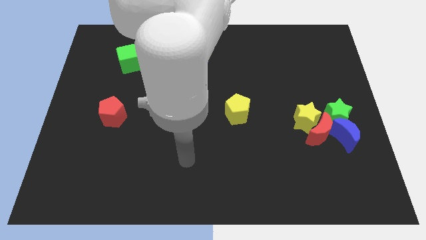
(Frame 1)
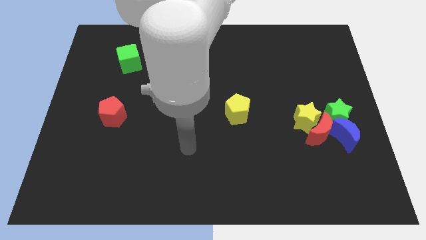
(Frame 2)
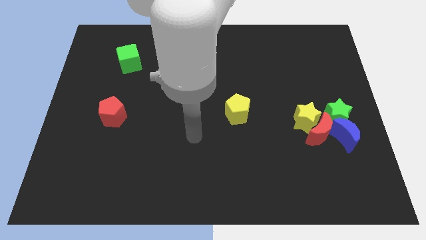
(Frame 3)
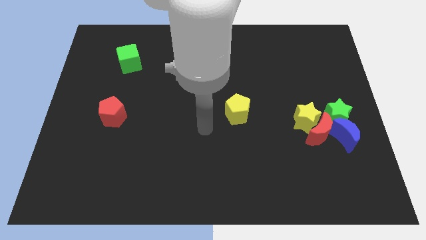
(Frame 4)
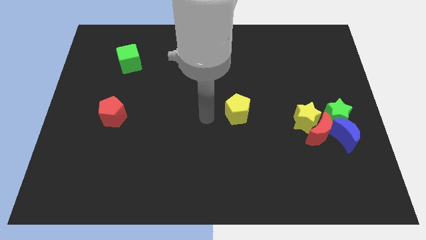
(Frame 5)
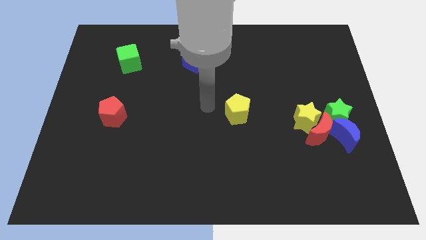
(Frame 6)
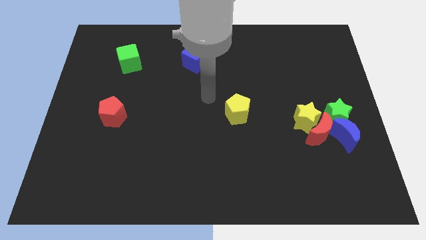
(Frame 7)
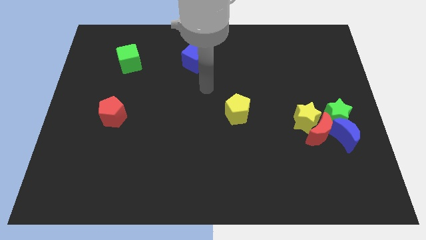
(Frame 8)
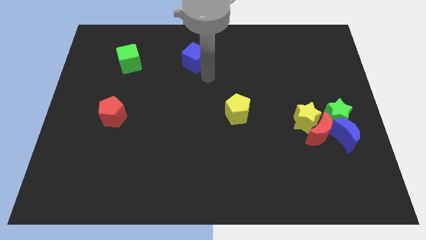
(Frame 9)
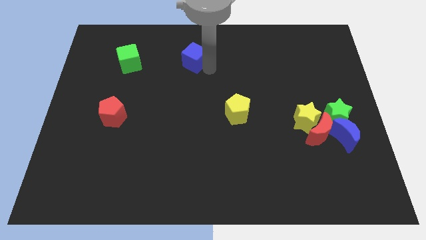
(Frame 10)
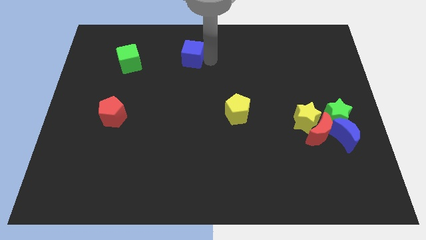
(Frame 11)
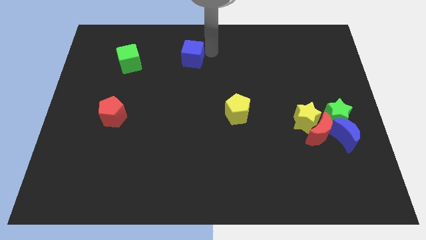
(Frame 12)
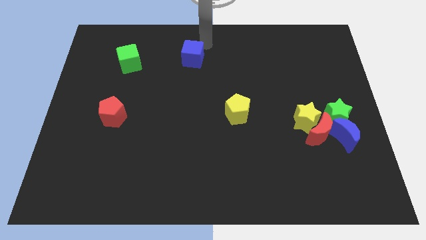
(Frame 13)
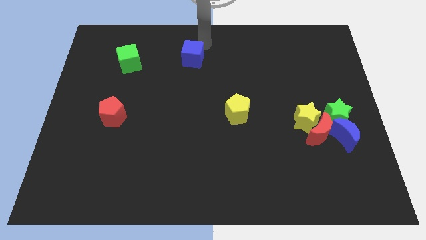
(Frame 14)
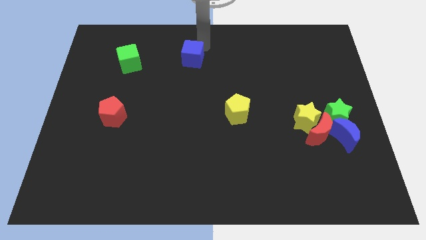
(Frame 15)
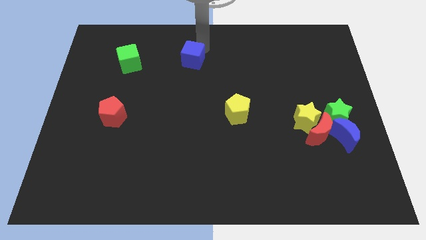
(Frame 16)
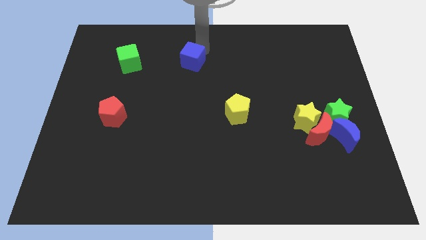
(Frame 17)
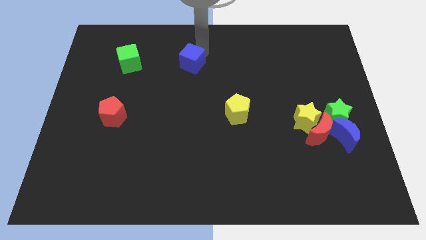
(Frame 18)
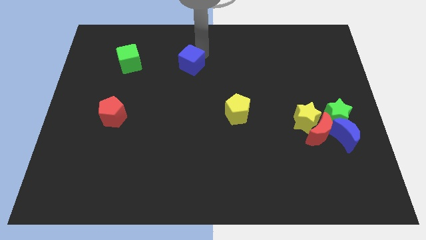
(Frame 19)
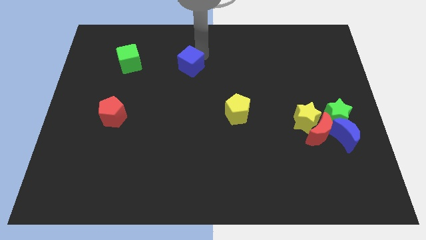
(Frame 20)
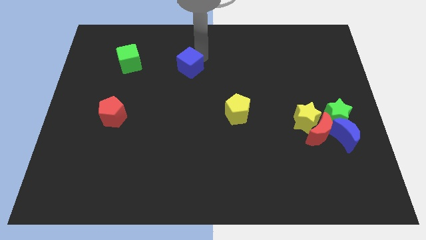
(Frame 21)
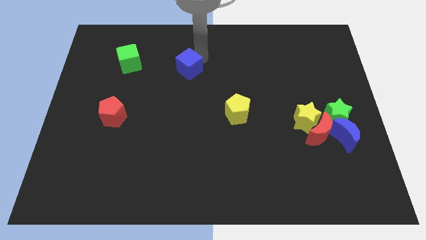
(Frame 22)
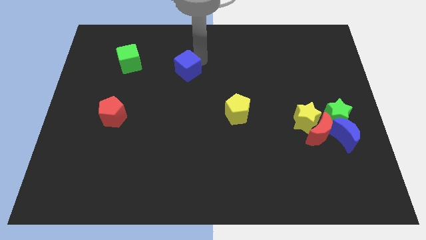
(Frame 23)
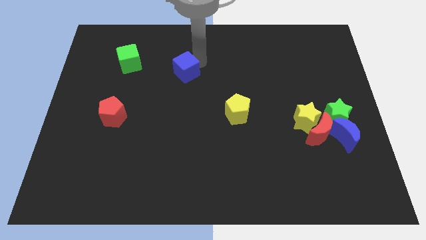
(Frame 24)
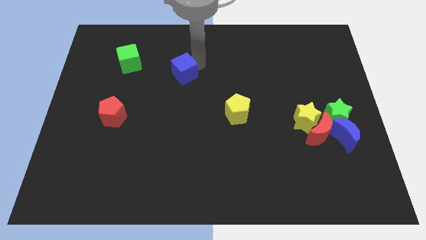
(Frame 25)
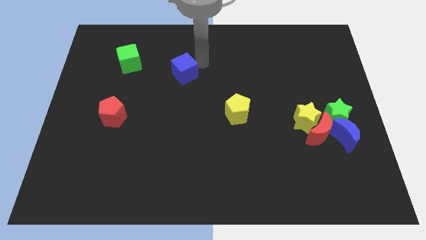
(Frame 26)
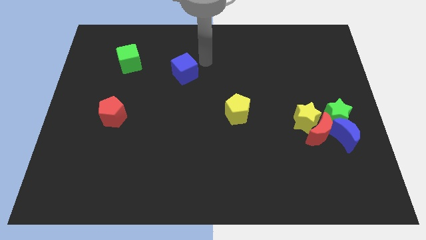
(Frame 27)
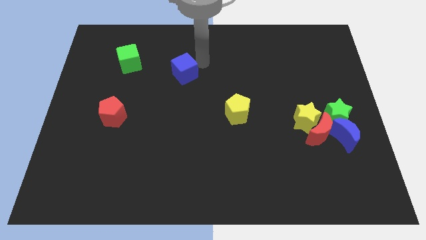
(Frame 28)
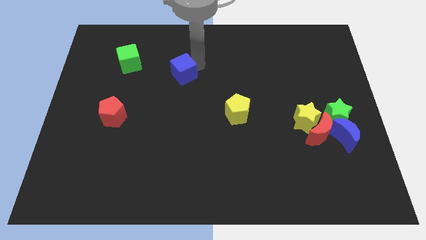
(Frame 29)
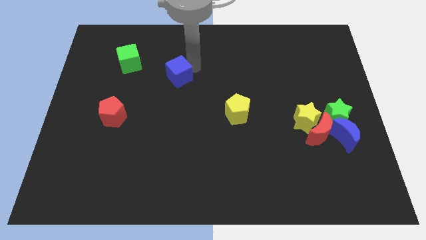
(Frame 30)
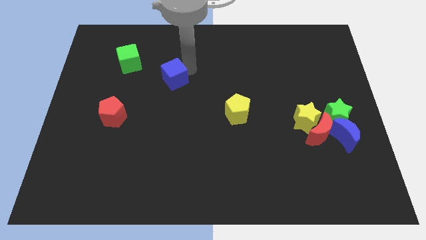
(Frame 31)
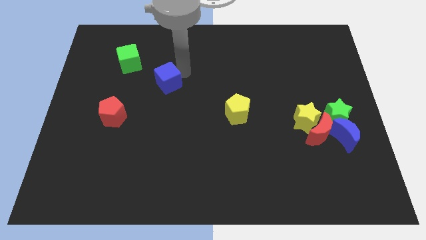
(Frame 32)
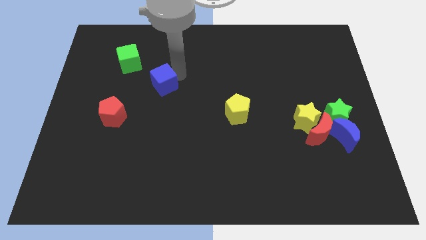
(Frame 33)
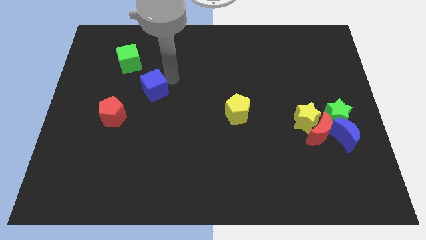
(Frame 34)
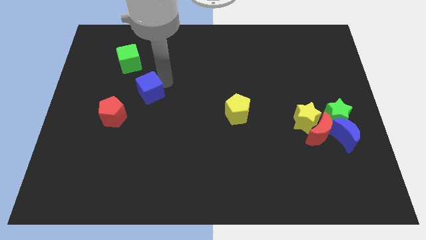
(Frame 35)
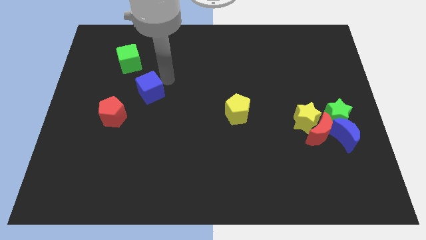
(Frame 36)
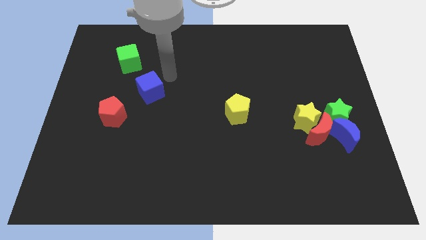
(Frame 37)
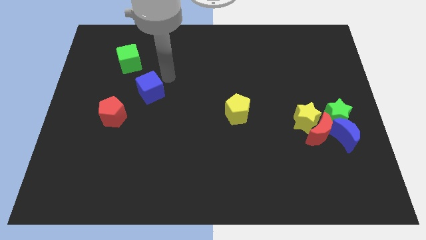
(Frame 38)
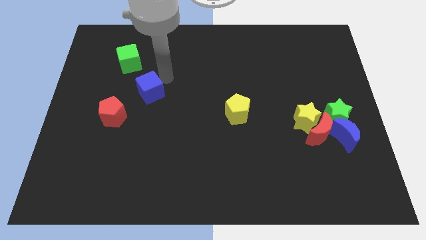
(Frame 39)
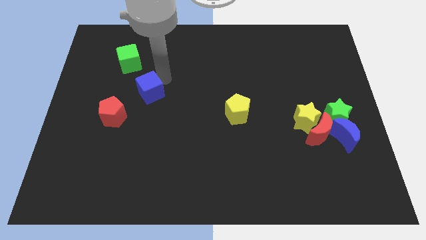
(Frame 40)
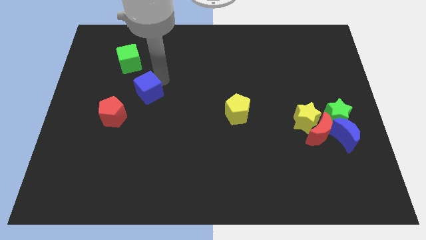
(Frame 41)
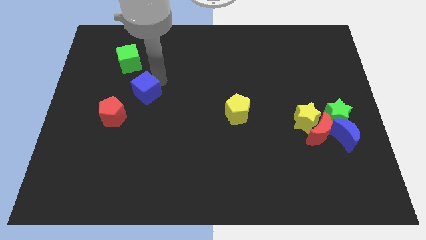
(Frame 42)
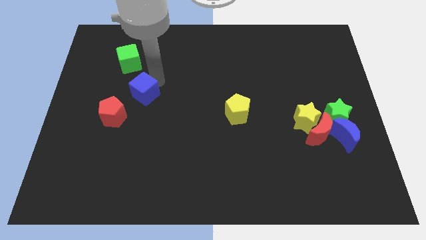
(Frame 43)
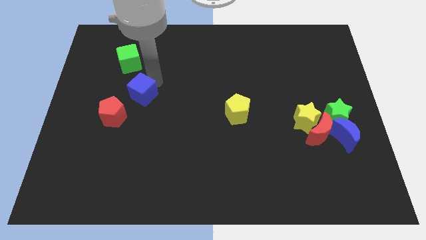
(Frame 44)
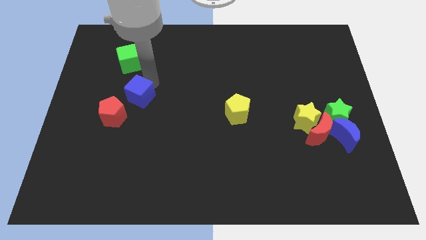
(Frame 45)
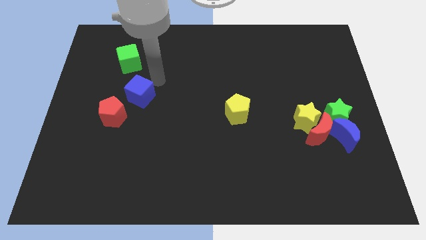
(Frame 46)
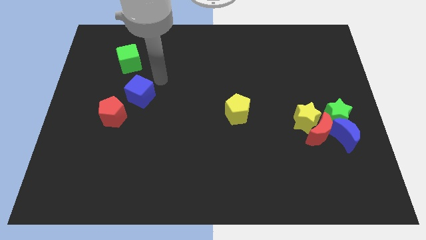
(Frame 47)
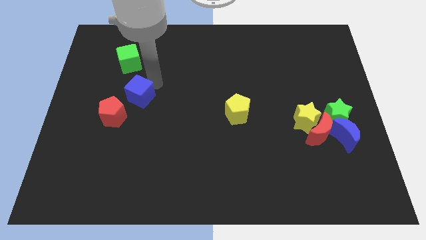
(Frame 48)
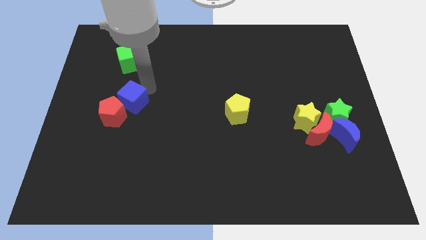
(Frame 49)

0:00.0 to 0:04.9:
put the blue cube towards the red pentagon

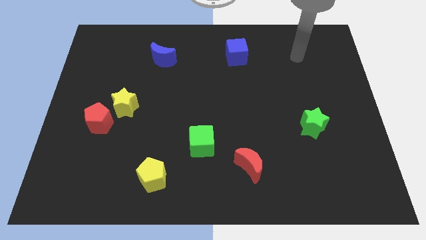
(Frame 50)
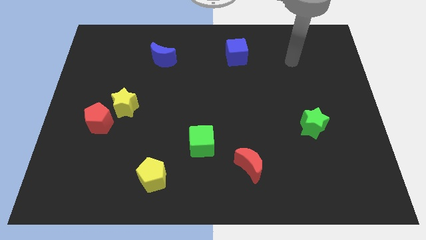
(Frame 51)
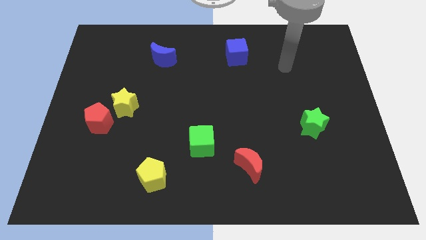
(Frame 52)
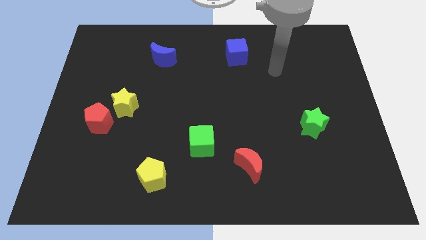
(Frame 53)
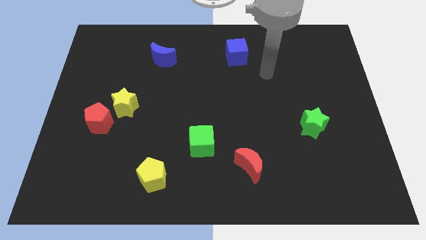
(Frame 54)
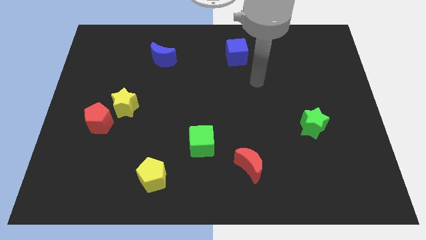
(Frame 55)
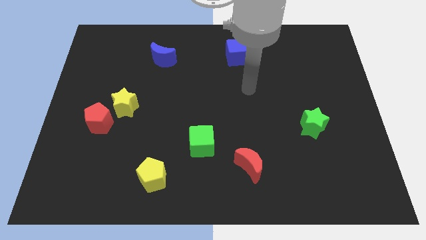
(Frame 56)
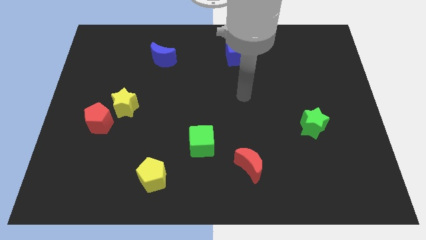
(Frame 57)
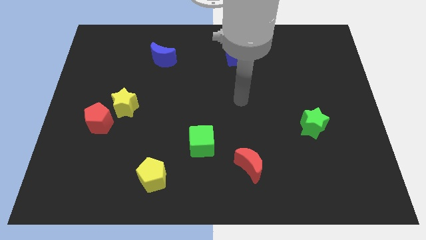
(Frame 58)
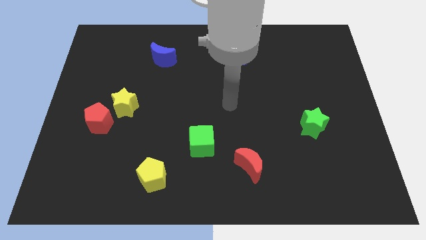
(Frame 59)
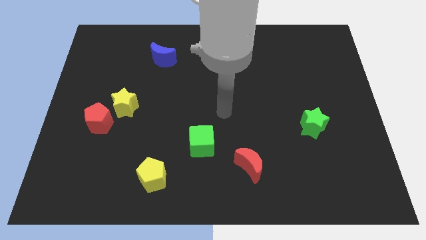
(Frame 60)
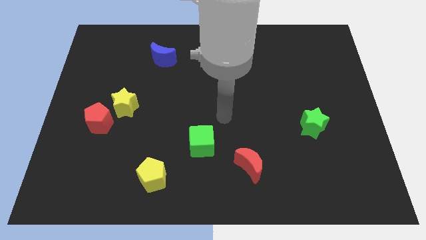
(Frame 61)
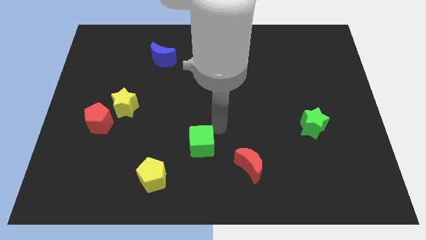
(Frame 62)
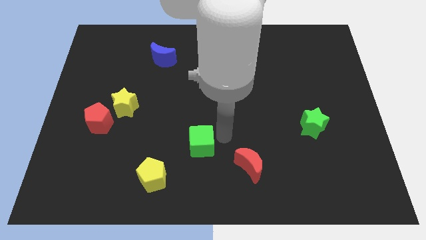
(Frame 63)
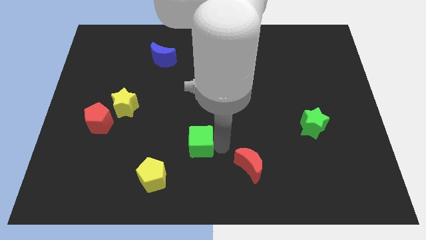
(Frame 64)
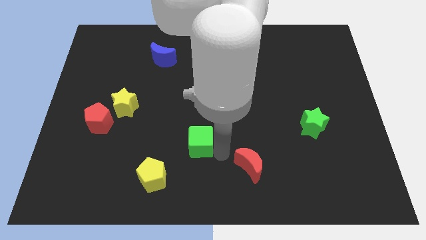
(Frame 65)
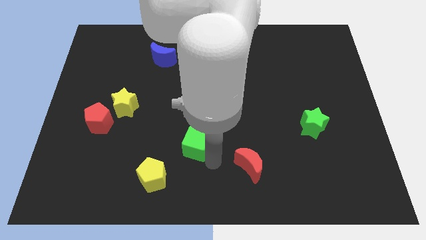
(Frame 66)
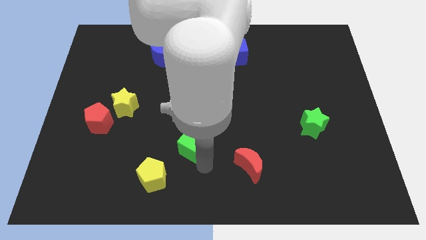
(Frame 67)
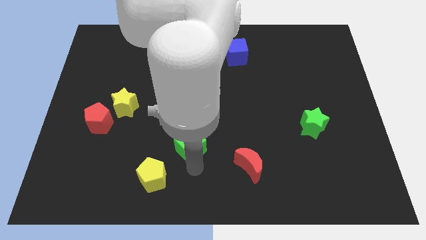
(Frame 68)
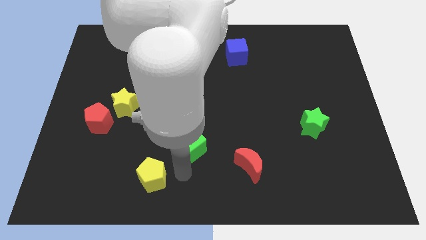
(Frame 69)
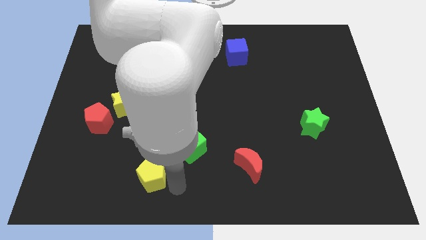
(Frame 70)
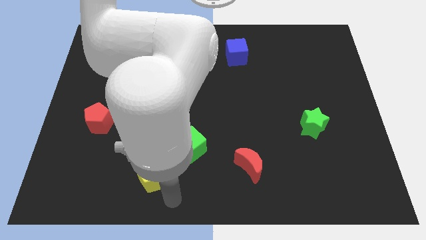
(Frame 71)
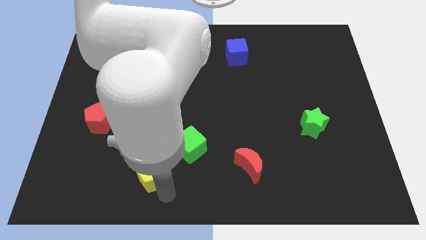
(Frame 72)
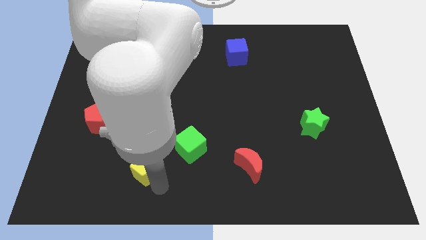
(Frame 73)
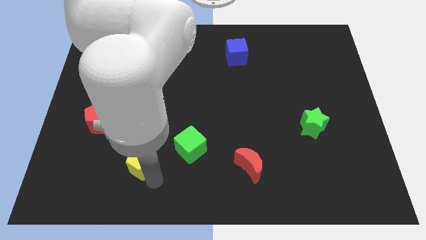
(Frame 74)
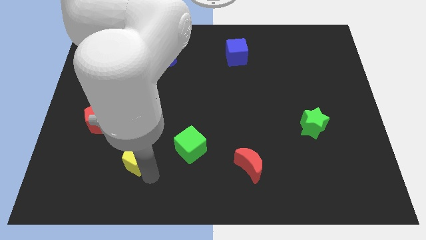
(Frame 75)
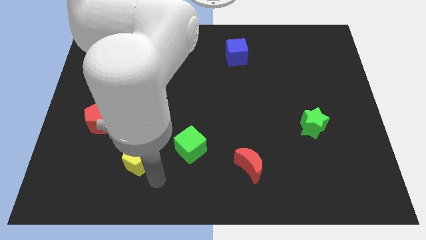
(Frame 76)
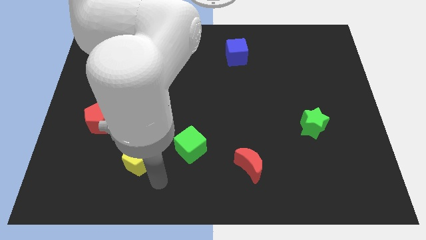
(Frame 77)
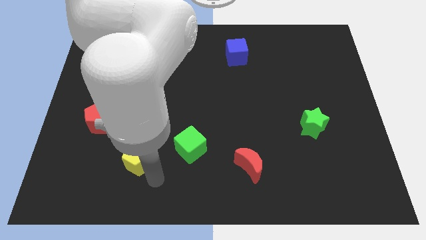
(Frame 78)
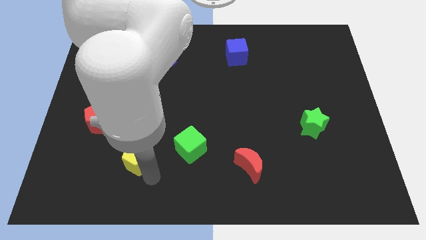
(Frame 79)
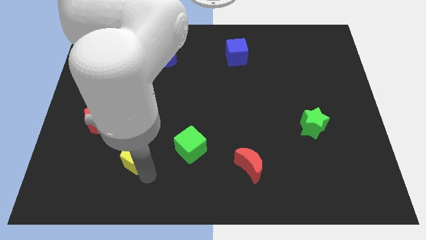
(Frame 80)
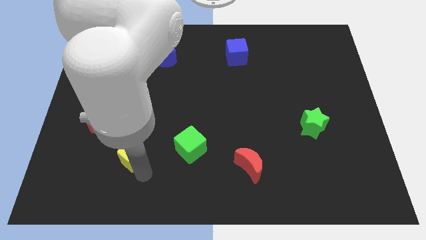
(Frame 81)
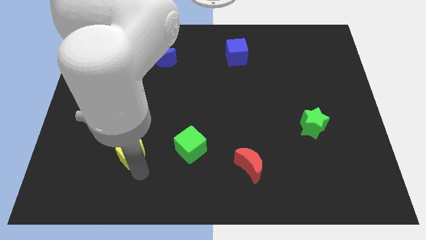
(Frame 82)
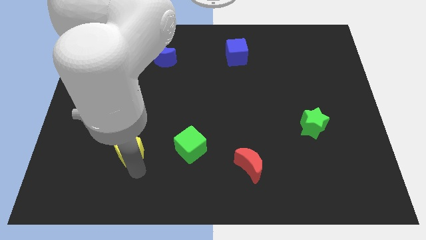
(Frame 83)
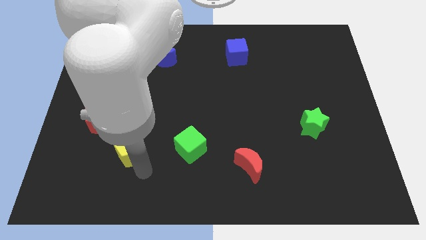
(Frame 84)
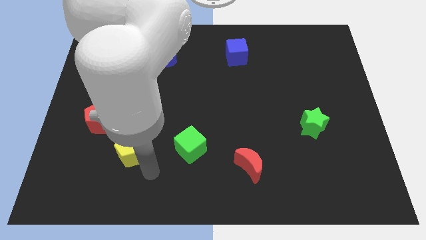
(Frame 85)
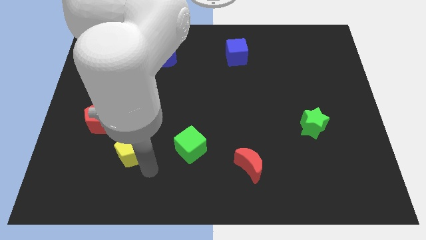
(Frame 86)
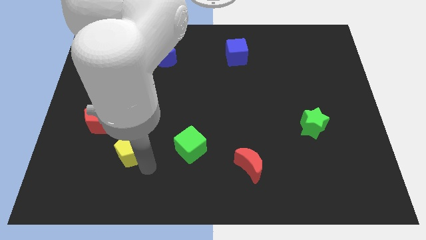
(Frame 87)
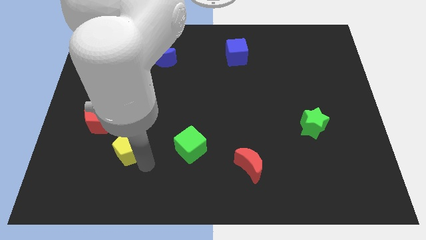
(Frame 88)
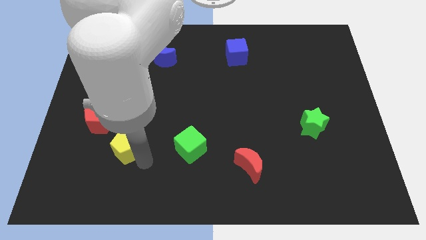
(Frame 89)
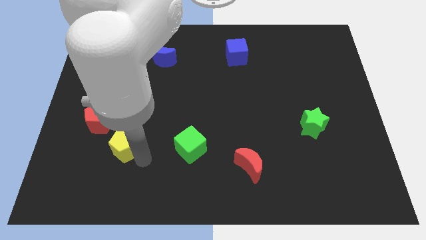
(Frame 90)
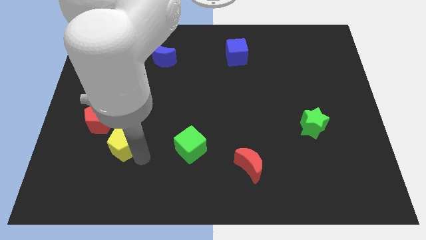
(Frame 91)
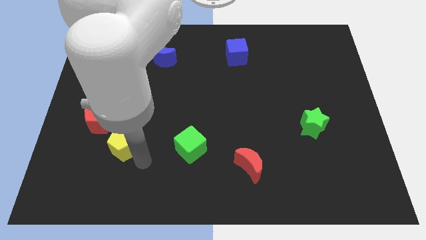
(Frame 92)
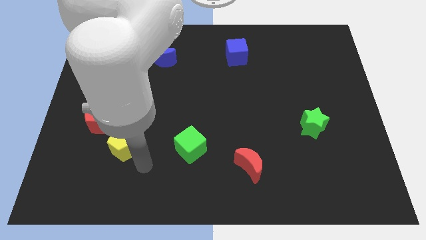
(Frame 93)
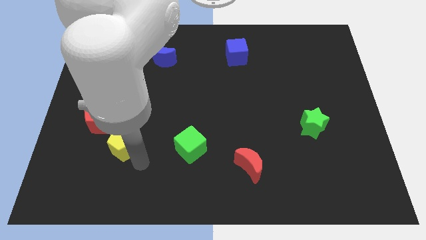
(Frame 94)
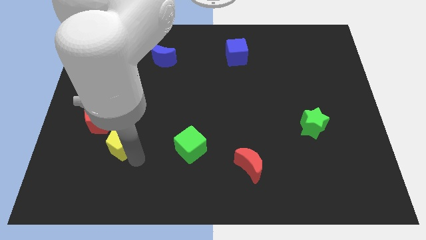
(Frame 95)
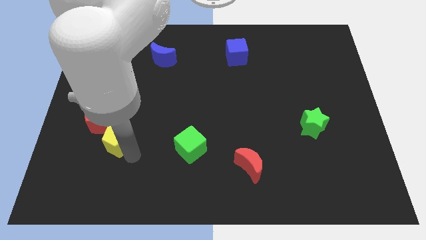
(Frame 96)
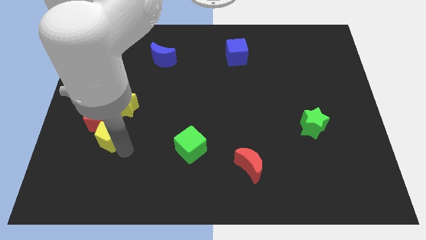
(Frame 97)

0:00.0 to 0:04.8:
put the yellow pentagon to the red pentagon
